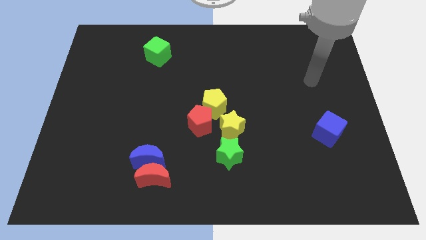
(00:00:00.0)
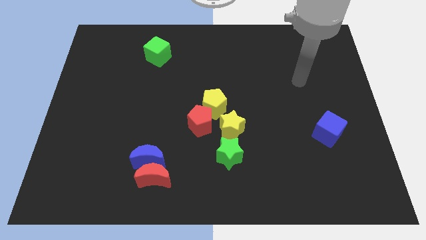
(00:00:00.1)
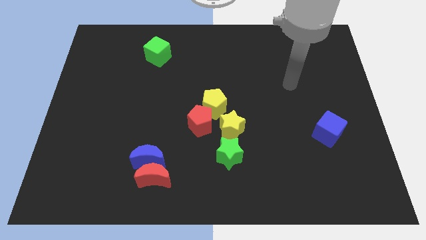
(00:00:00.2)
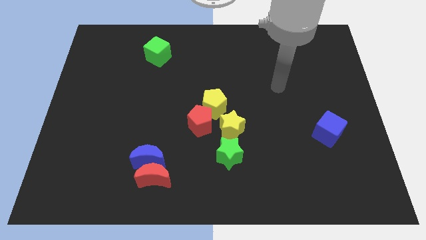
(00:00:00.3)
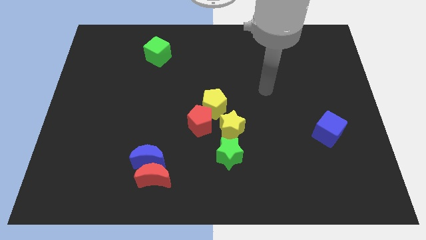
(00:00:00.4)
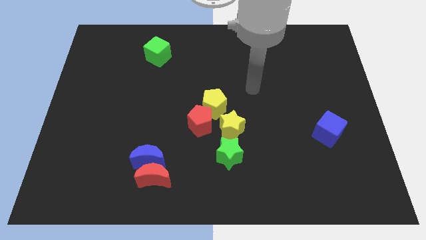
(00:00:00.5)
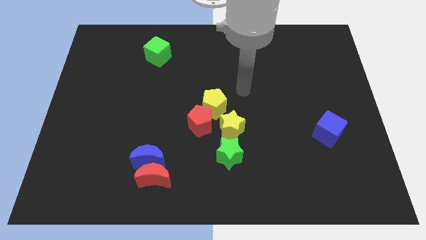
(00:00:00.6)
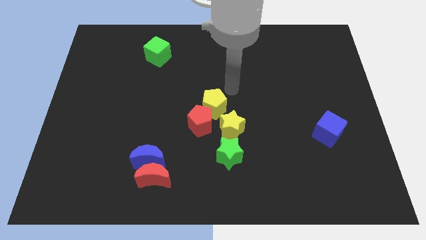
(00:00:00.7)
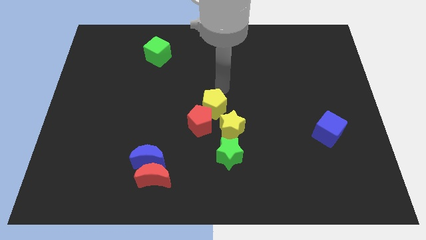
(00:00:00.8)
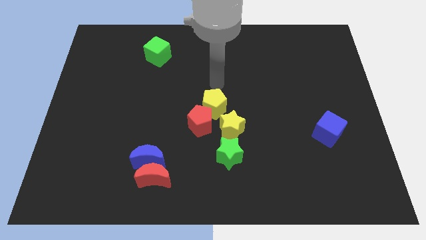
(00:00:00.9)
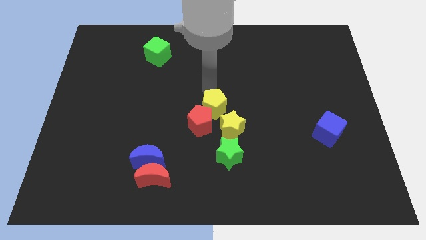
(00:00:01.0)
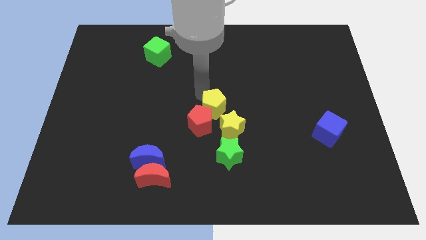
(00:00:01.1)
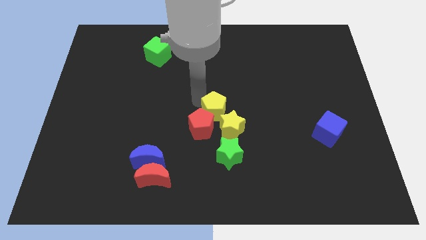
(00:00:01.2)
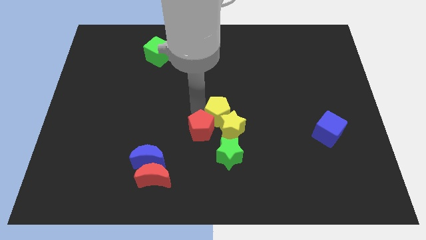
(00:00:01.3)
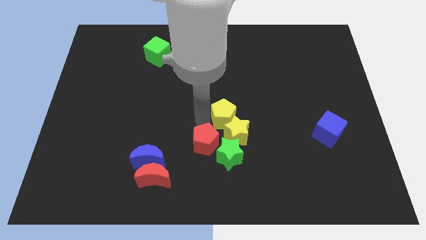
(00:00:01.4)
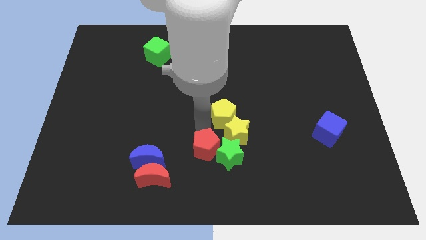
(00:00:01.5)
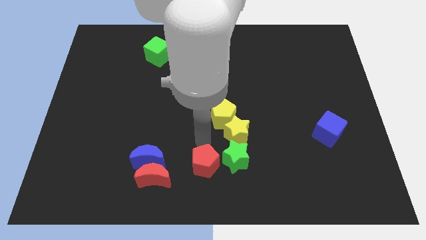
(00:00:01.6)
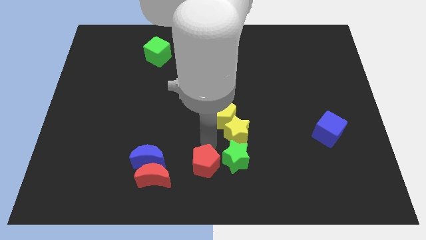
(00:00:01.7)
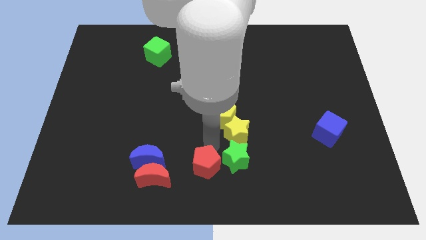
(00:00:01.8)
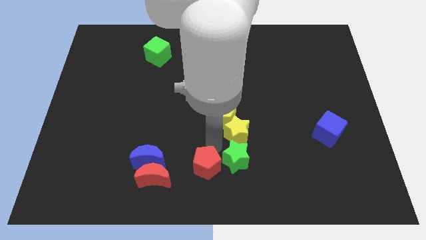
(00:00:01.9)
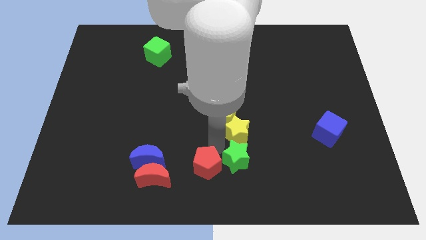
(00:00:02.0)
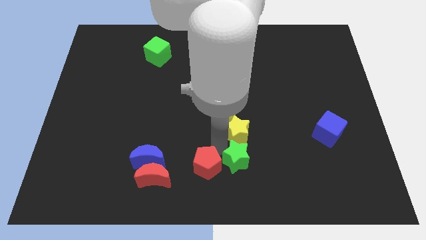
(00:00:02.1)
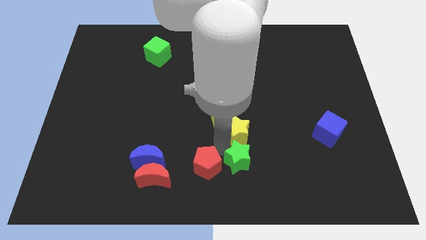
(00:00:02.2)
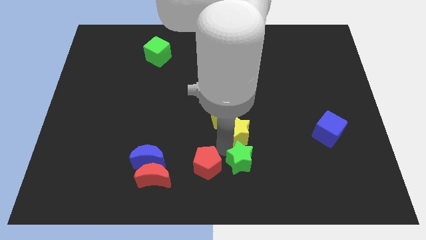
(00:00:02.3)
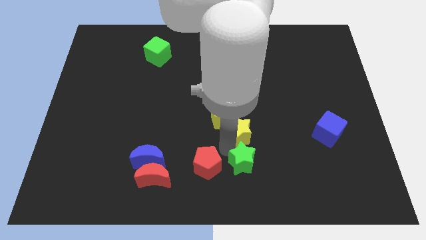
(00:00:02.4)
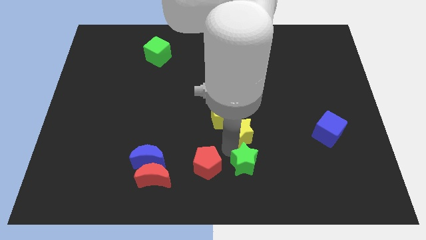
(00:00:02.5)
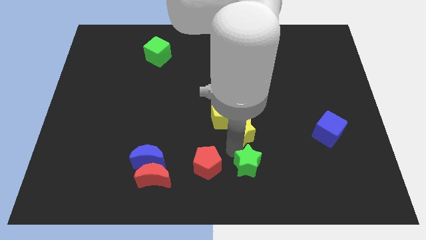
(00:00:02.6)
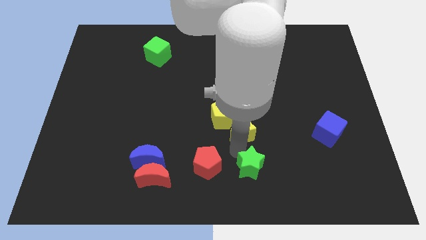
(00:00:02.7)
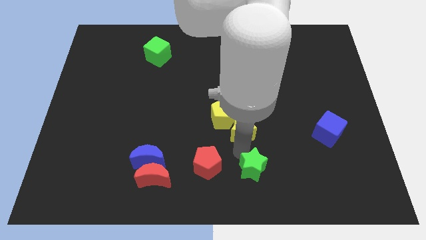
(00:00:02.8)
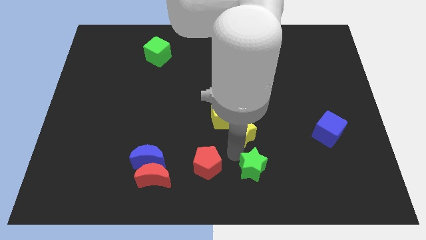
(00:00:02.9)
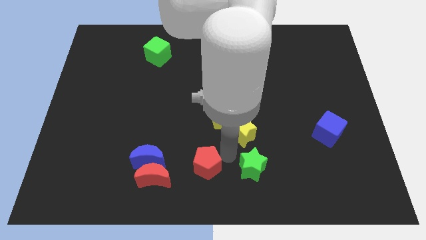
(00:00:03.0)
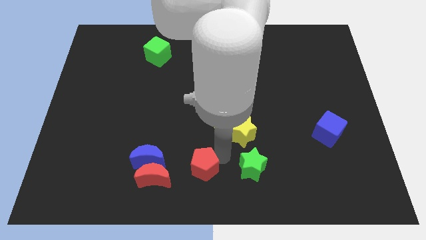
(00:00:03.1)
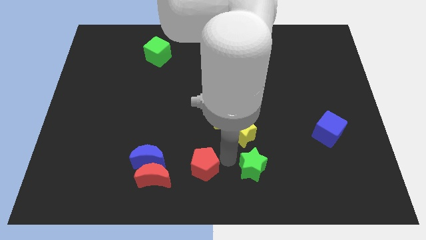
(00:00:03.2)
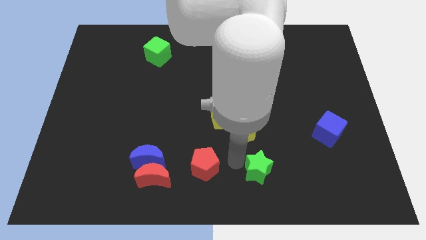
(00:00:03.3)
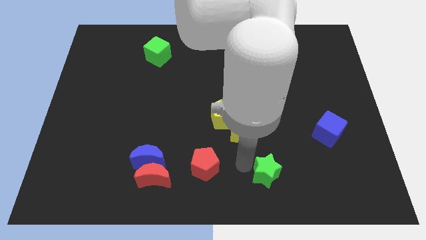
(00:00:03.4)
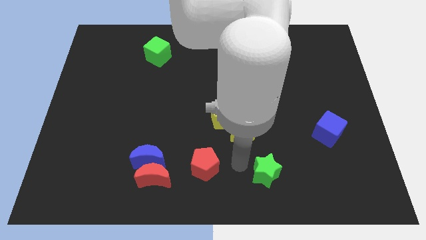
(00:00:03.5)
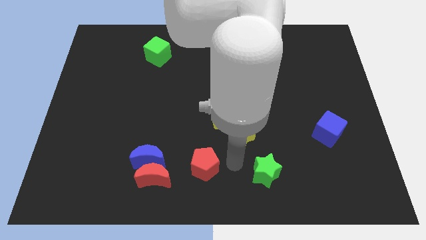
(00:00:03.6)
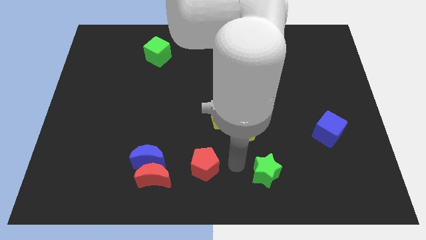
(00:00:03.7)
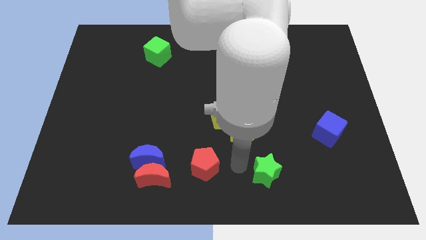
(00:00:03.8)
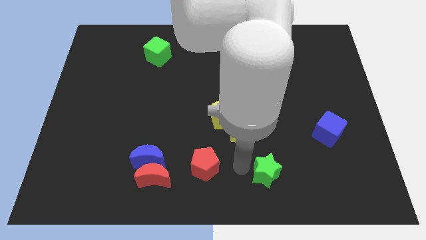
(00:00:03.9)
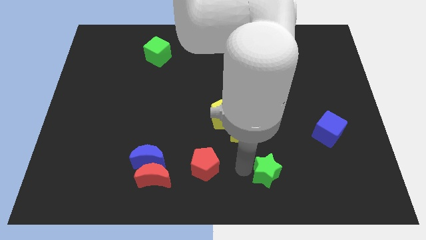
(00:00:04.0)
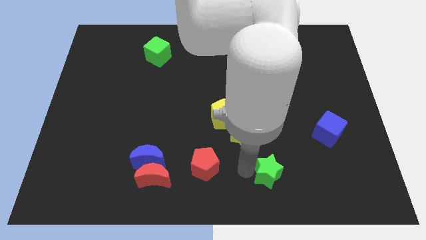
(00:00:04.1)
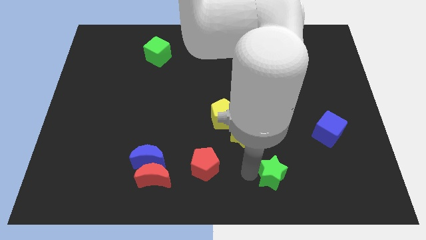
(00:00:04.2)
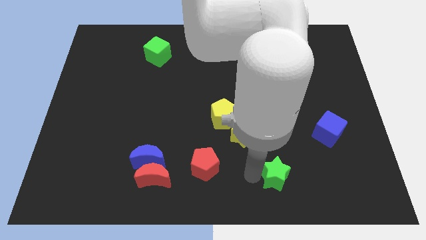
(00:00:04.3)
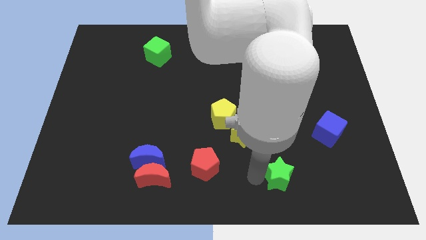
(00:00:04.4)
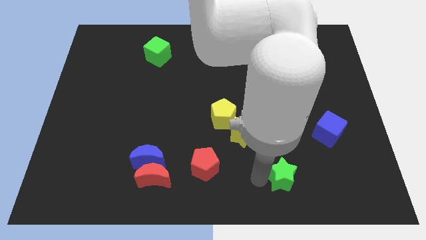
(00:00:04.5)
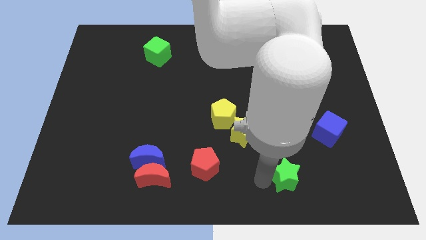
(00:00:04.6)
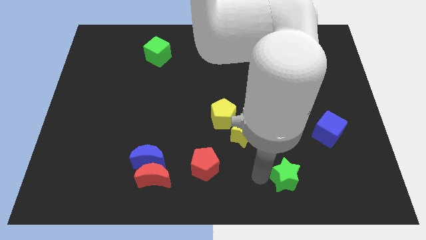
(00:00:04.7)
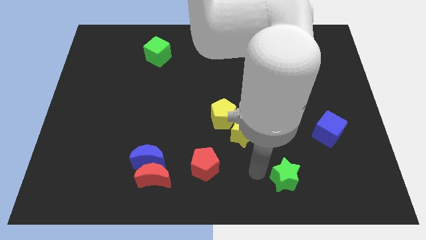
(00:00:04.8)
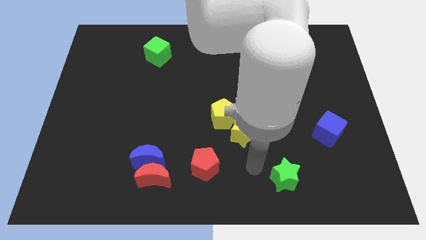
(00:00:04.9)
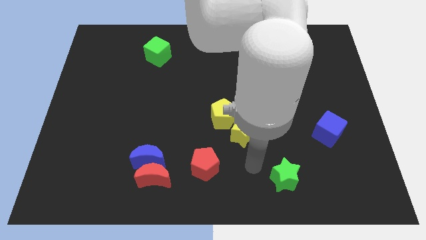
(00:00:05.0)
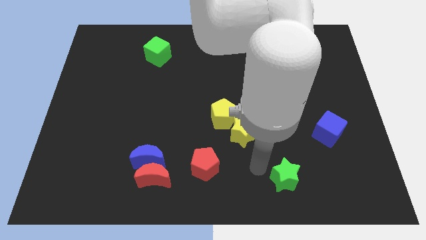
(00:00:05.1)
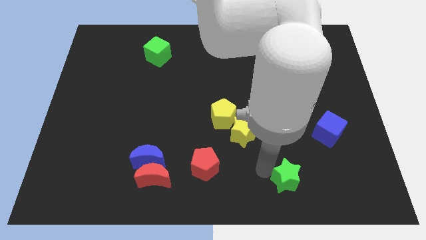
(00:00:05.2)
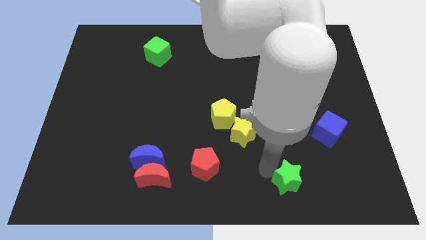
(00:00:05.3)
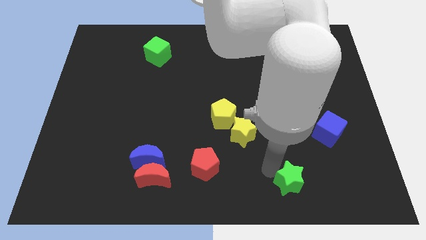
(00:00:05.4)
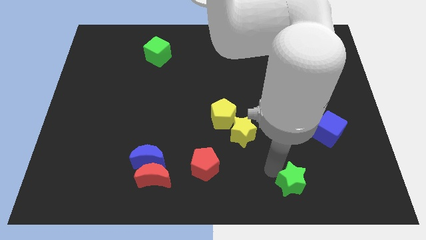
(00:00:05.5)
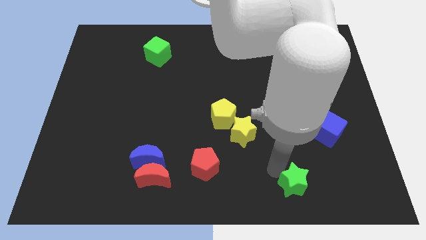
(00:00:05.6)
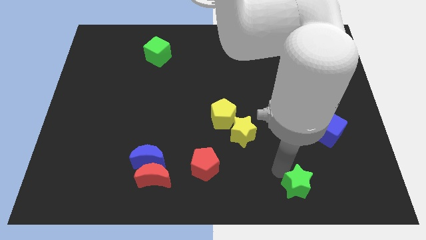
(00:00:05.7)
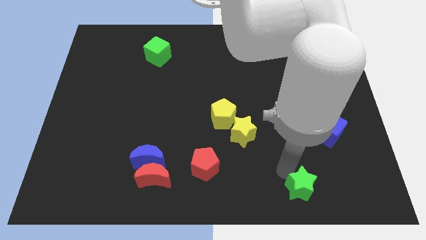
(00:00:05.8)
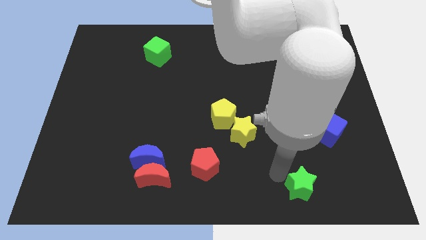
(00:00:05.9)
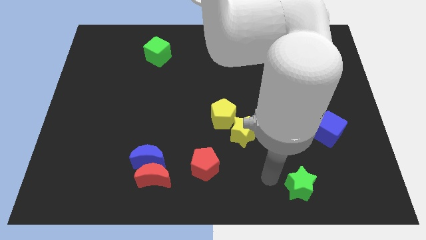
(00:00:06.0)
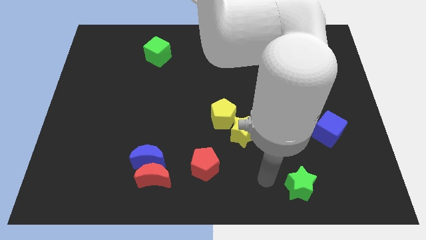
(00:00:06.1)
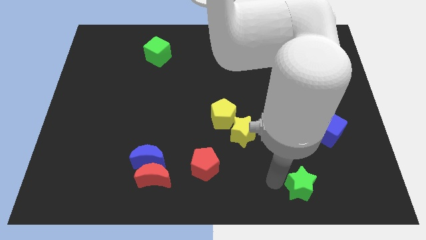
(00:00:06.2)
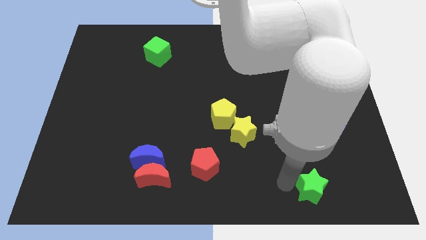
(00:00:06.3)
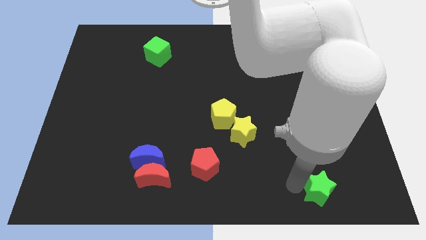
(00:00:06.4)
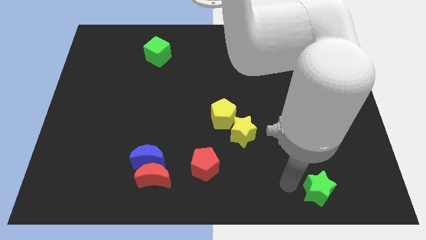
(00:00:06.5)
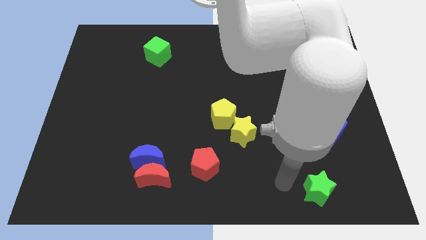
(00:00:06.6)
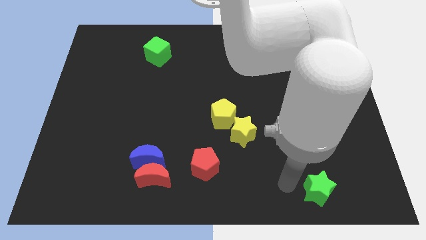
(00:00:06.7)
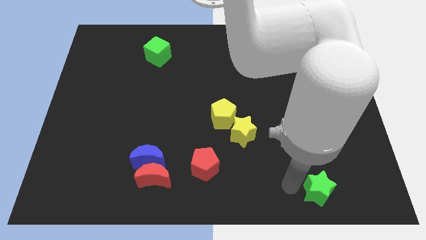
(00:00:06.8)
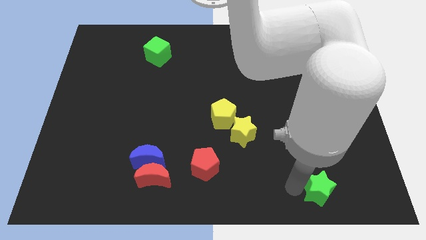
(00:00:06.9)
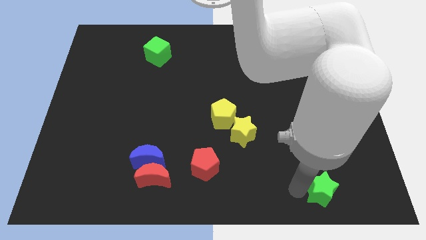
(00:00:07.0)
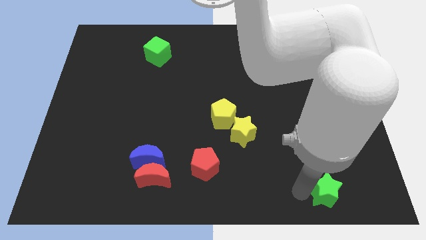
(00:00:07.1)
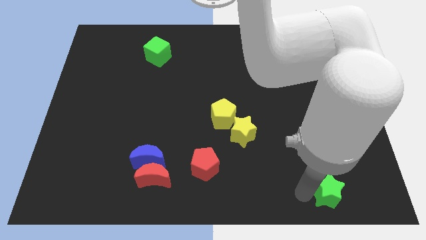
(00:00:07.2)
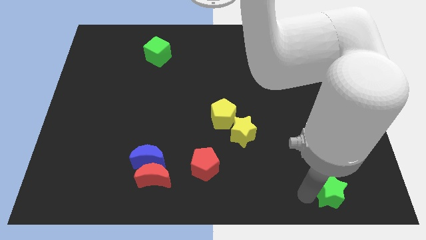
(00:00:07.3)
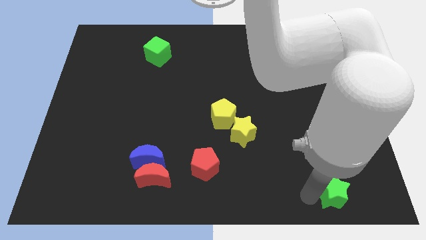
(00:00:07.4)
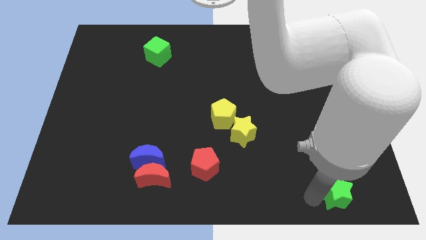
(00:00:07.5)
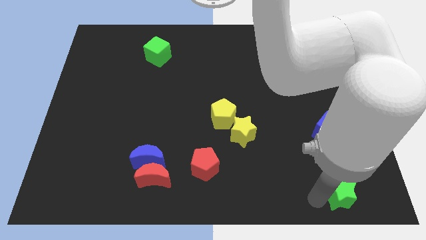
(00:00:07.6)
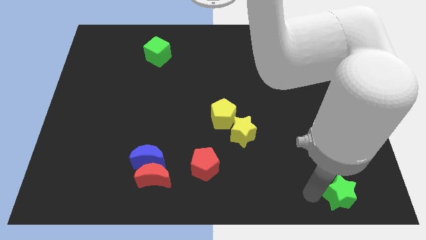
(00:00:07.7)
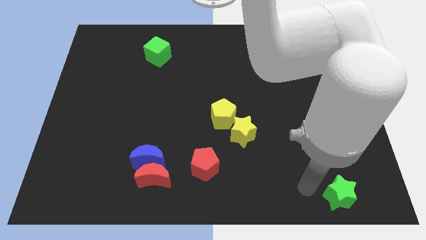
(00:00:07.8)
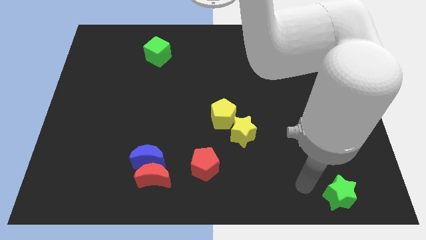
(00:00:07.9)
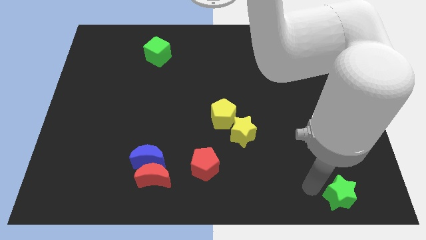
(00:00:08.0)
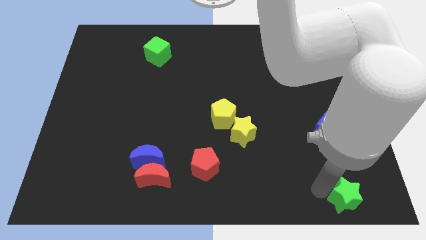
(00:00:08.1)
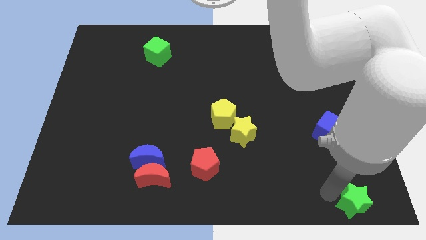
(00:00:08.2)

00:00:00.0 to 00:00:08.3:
slide the green star to the lower right corner
